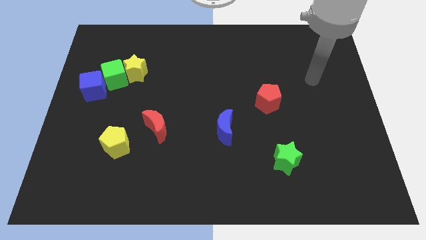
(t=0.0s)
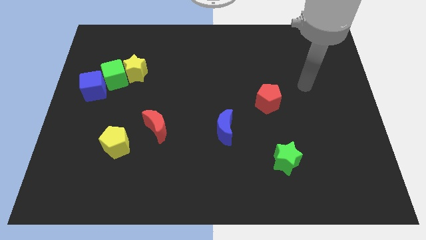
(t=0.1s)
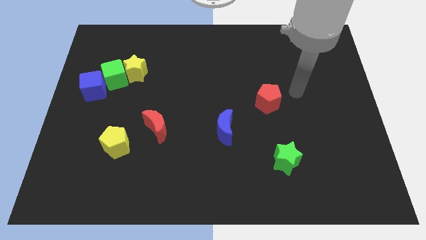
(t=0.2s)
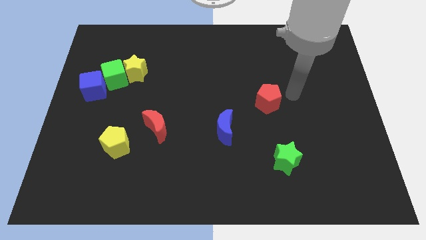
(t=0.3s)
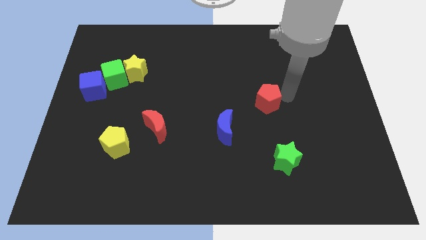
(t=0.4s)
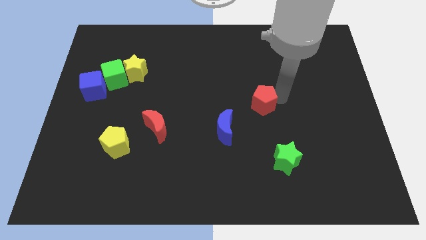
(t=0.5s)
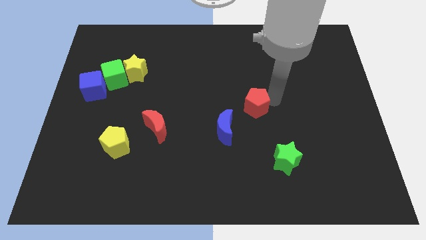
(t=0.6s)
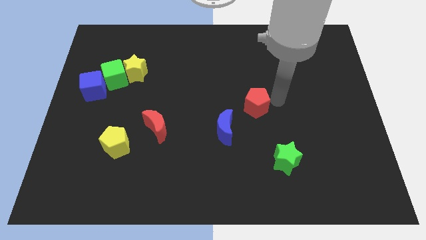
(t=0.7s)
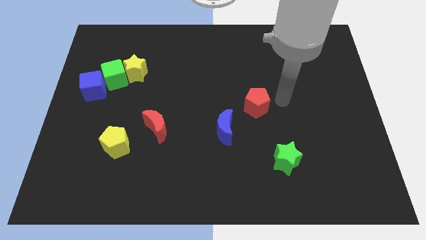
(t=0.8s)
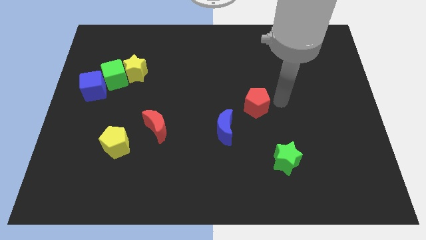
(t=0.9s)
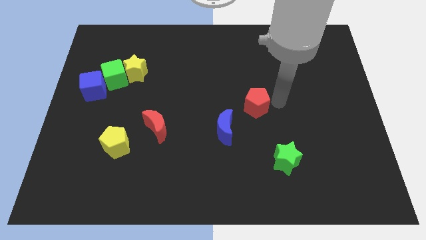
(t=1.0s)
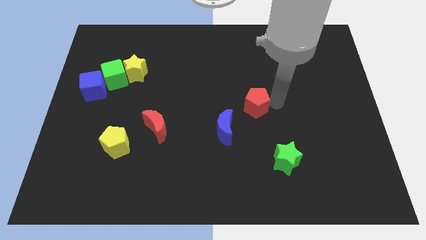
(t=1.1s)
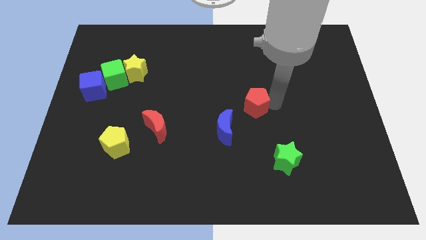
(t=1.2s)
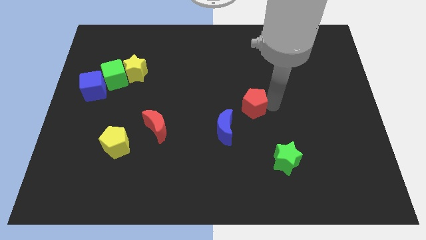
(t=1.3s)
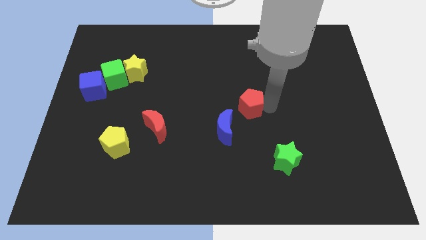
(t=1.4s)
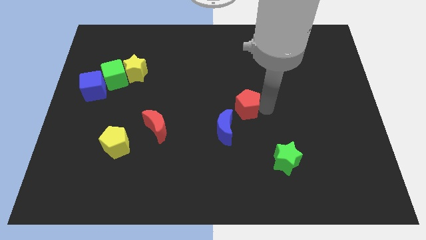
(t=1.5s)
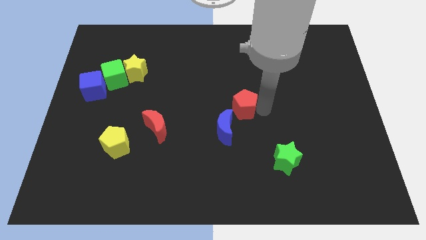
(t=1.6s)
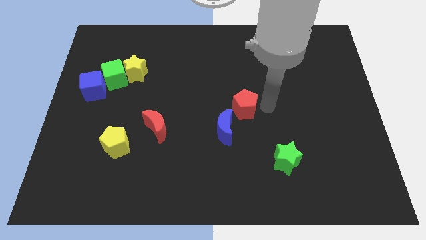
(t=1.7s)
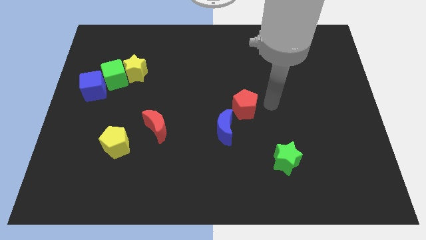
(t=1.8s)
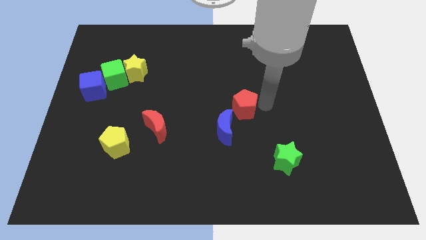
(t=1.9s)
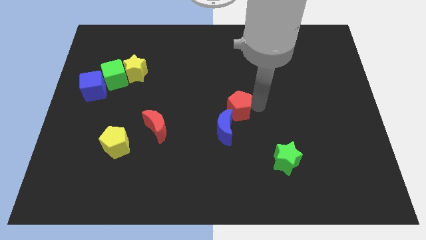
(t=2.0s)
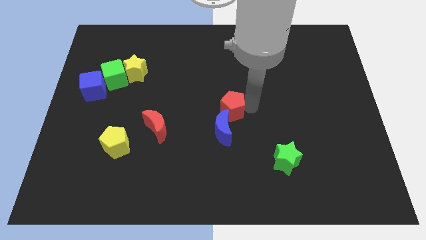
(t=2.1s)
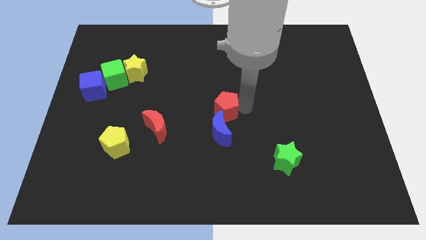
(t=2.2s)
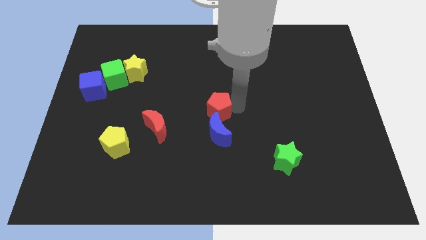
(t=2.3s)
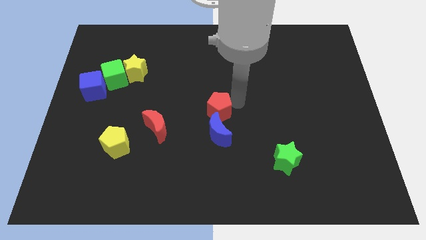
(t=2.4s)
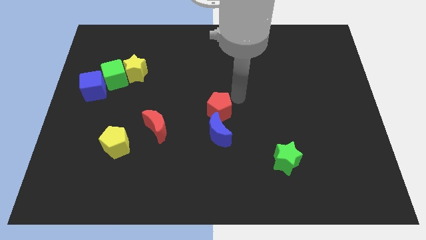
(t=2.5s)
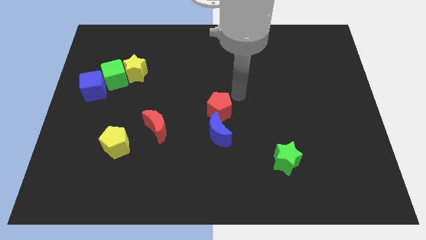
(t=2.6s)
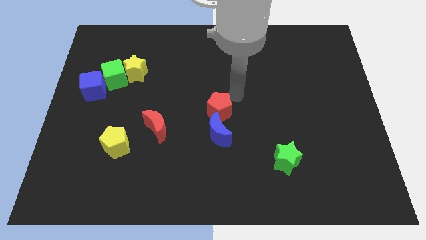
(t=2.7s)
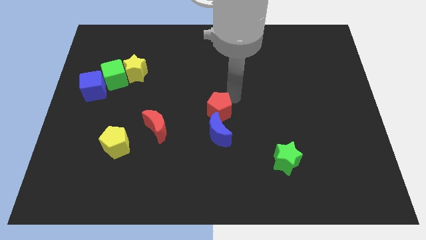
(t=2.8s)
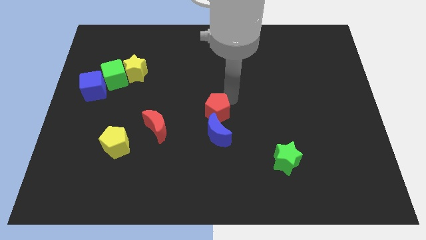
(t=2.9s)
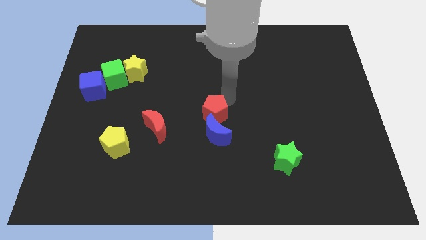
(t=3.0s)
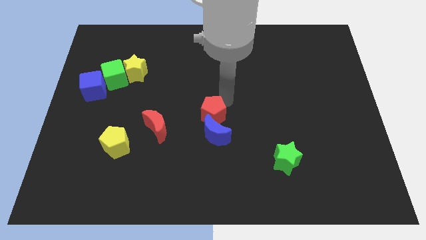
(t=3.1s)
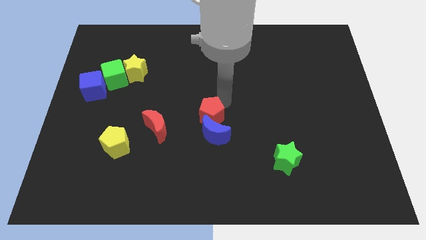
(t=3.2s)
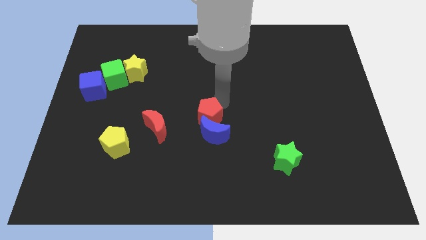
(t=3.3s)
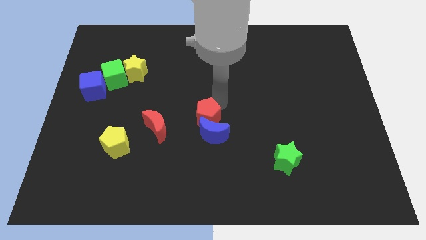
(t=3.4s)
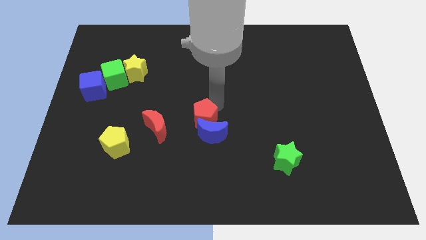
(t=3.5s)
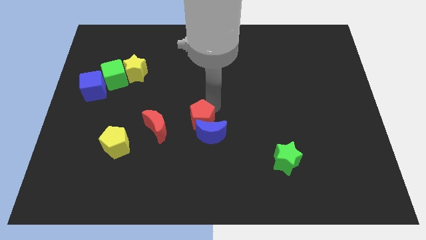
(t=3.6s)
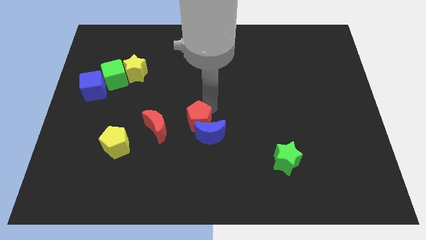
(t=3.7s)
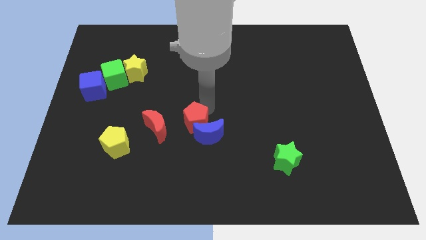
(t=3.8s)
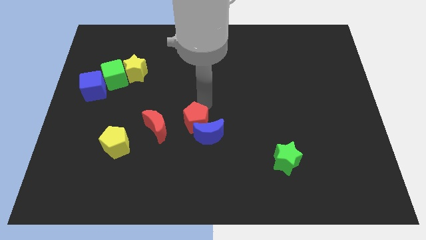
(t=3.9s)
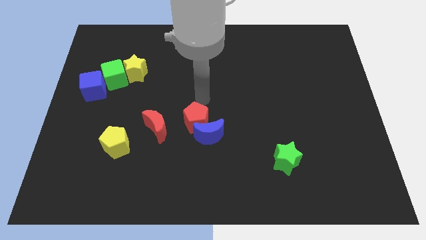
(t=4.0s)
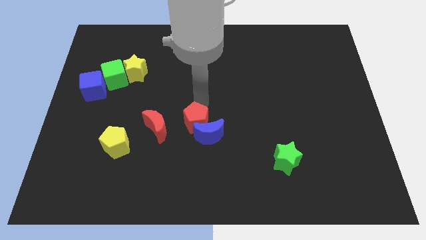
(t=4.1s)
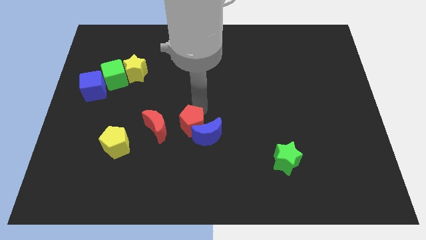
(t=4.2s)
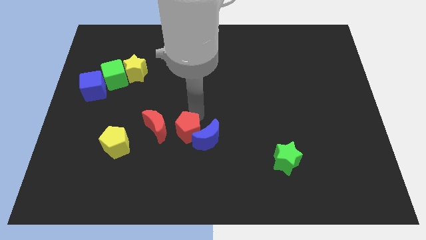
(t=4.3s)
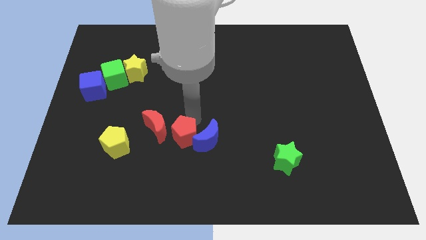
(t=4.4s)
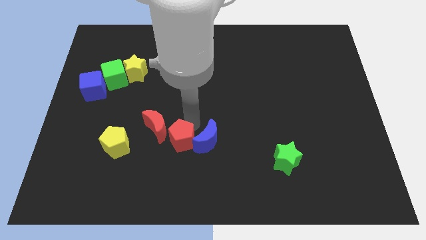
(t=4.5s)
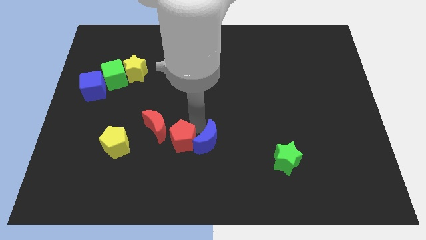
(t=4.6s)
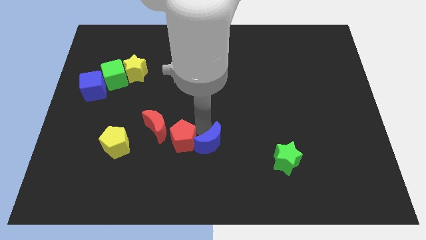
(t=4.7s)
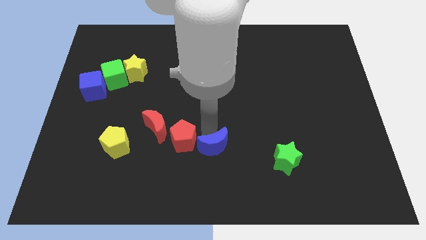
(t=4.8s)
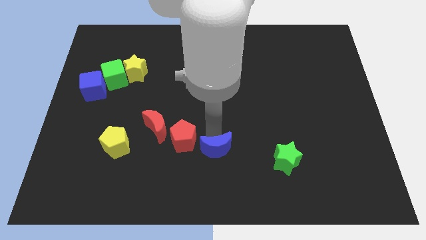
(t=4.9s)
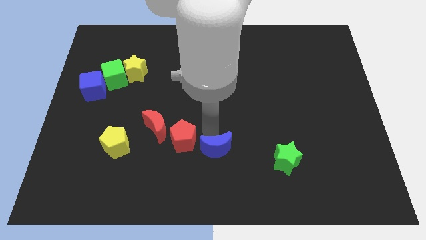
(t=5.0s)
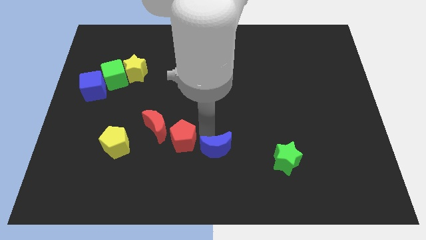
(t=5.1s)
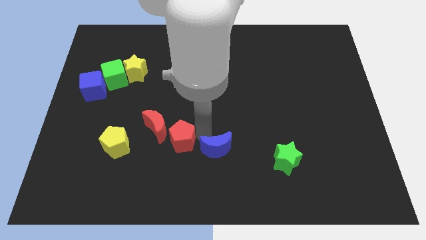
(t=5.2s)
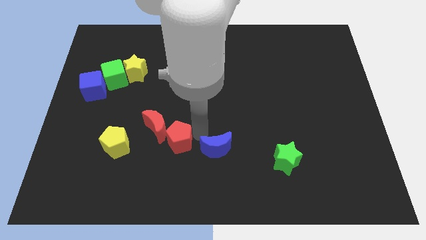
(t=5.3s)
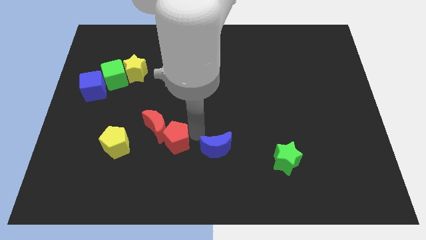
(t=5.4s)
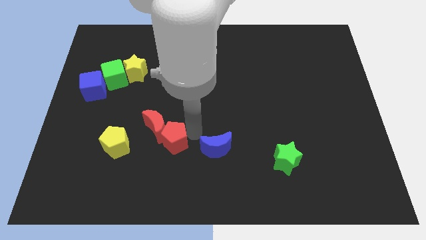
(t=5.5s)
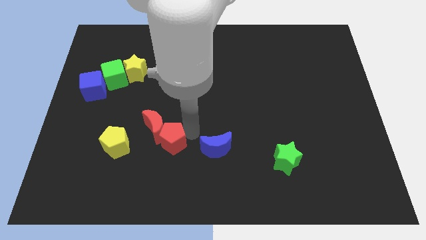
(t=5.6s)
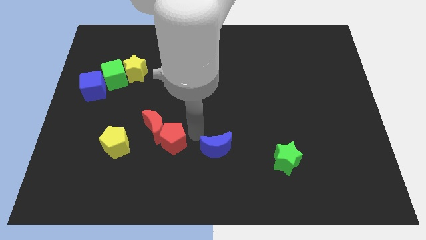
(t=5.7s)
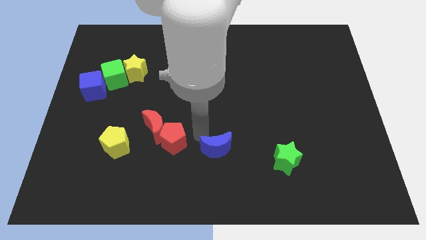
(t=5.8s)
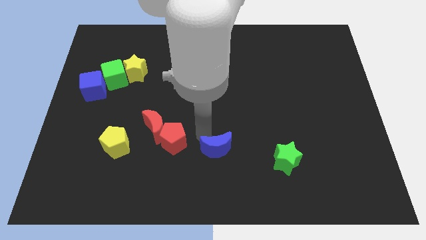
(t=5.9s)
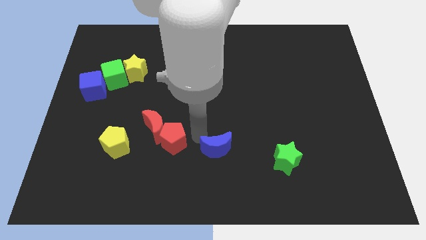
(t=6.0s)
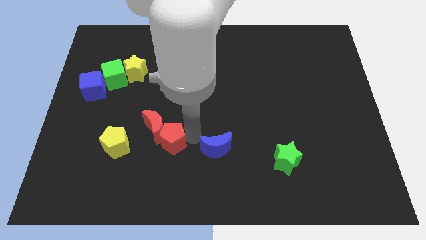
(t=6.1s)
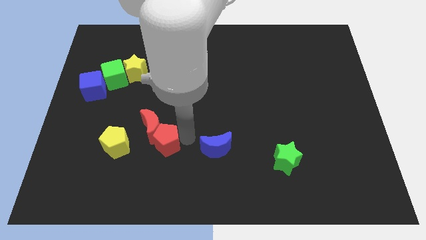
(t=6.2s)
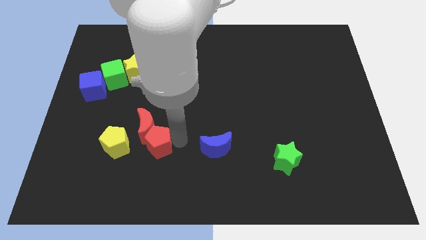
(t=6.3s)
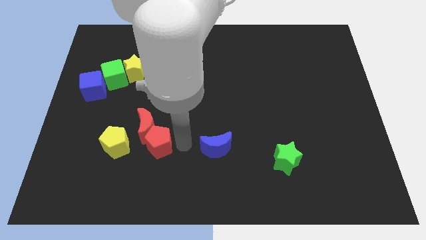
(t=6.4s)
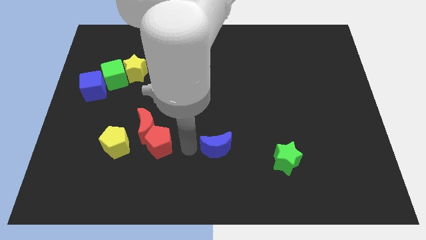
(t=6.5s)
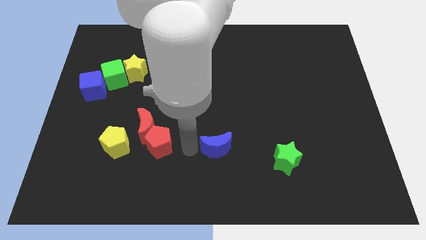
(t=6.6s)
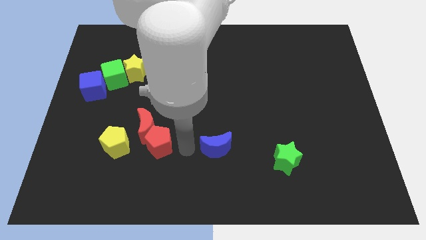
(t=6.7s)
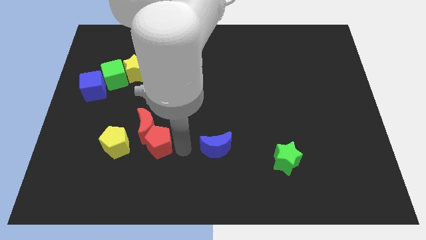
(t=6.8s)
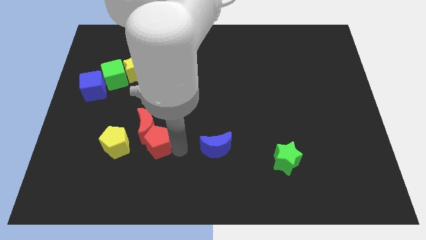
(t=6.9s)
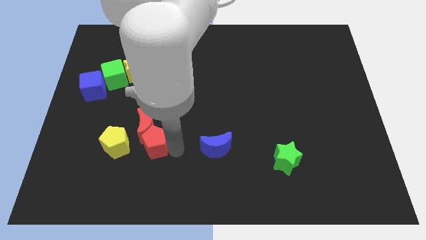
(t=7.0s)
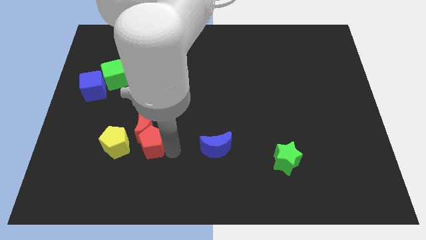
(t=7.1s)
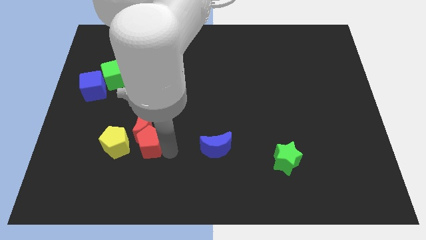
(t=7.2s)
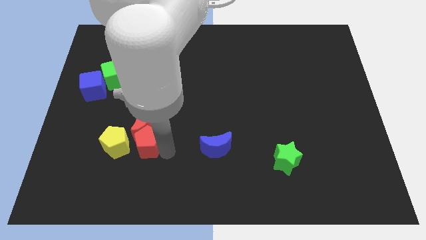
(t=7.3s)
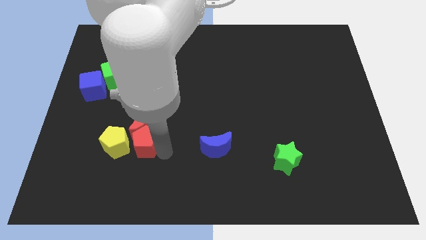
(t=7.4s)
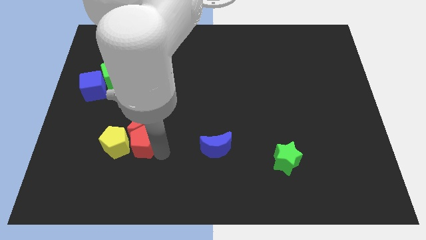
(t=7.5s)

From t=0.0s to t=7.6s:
push the red pentagon close to the yellow pentagon
